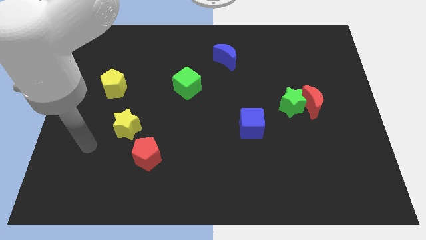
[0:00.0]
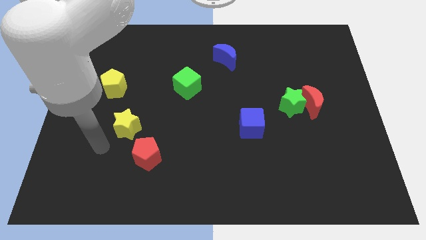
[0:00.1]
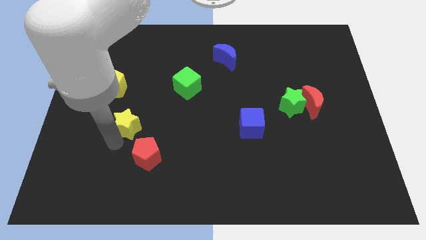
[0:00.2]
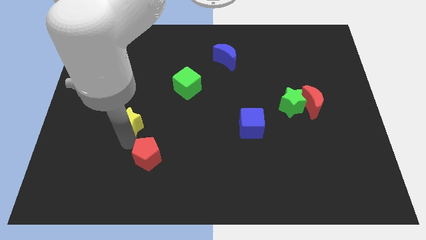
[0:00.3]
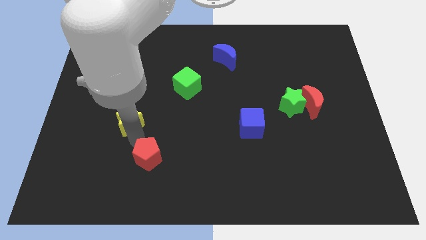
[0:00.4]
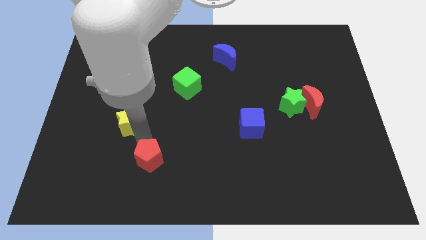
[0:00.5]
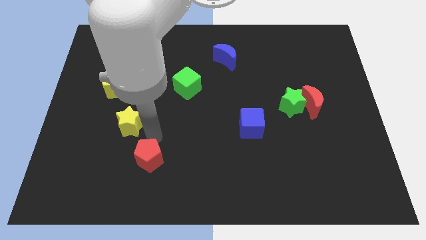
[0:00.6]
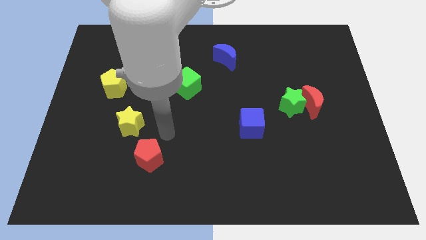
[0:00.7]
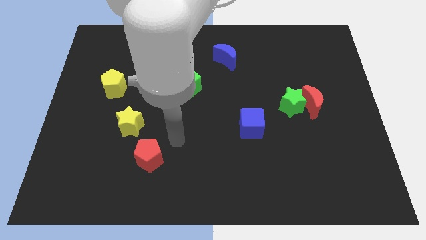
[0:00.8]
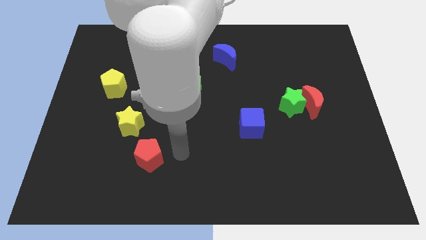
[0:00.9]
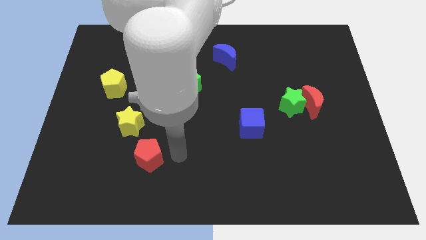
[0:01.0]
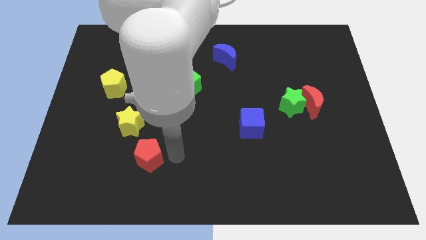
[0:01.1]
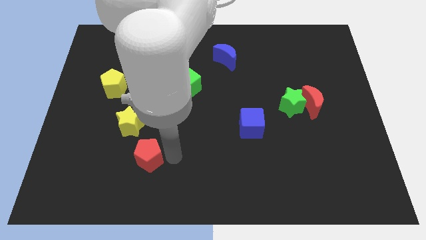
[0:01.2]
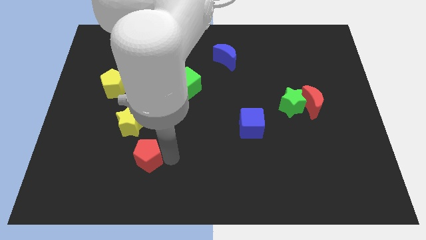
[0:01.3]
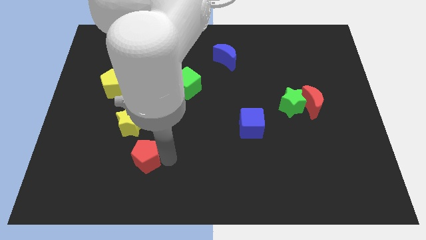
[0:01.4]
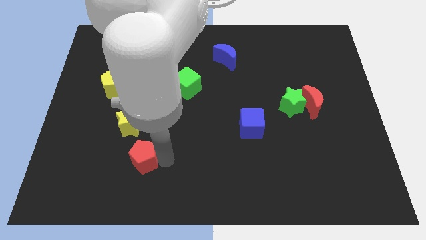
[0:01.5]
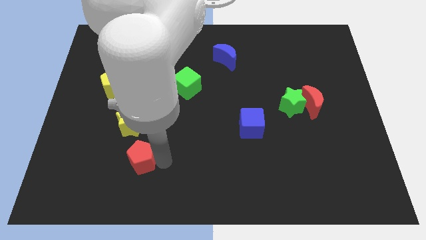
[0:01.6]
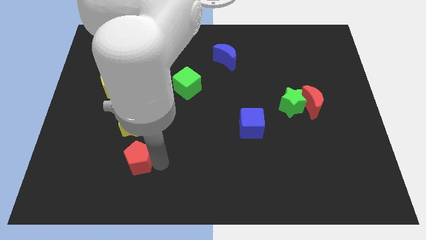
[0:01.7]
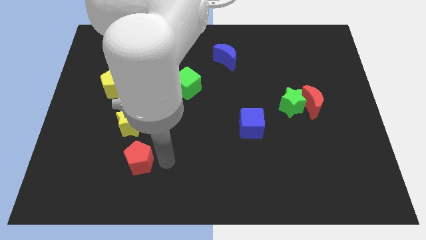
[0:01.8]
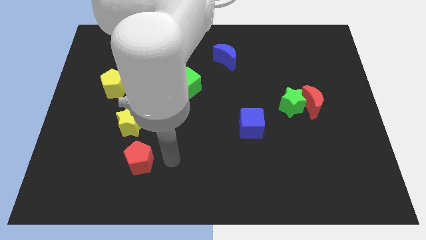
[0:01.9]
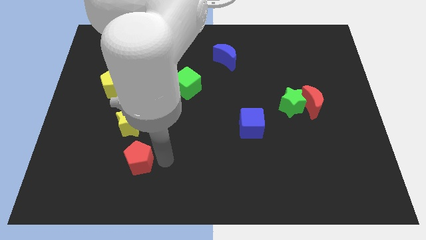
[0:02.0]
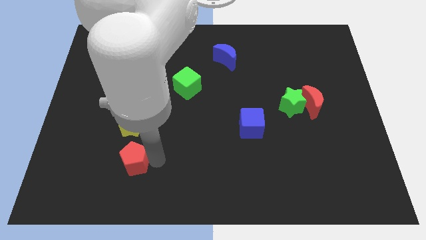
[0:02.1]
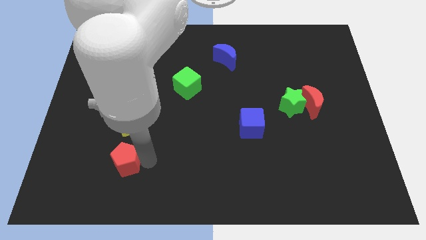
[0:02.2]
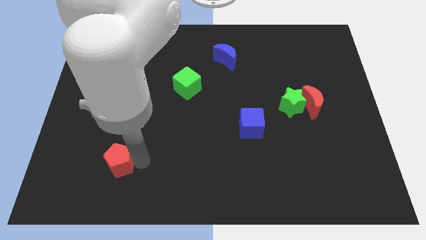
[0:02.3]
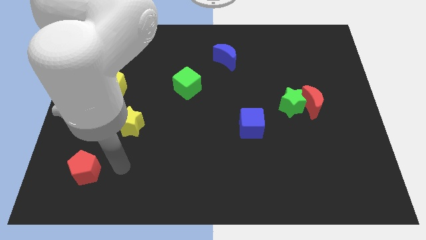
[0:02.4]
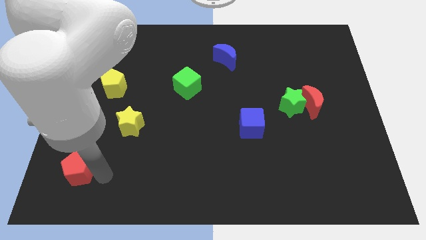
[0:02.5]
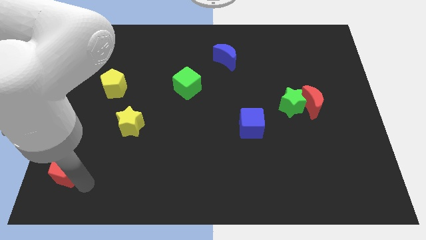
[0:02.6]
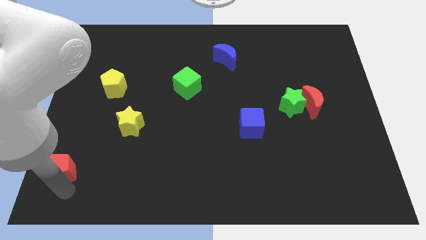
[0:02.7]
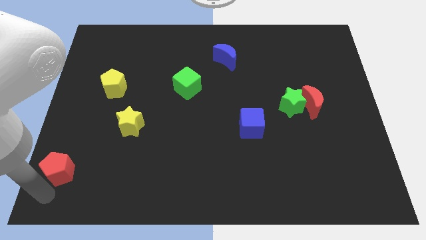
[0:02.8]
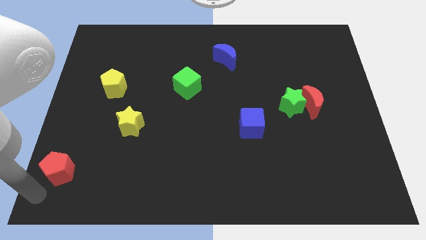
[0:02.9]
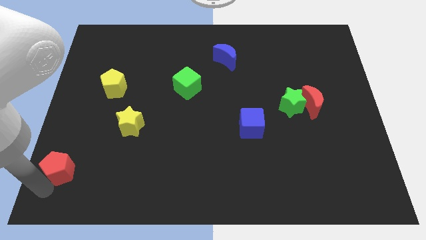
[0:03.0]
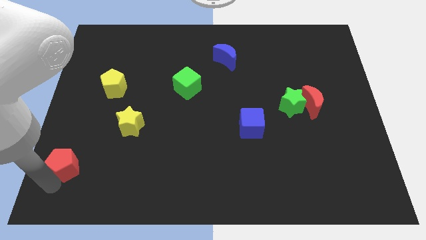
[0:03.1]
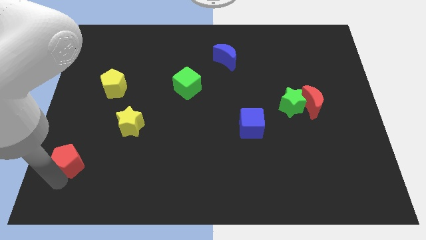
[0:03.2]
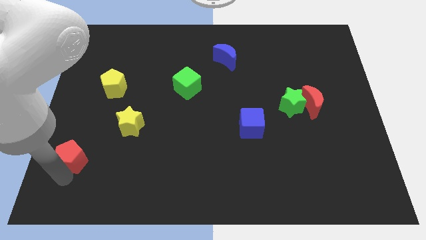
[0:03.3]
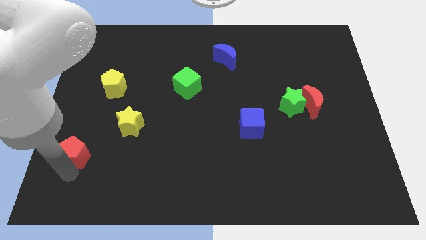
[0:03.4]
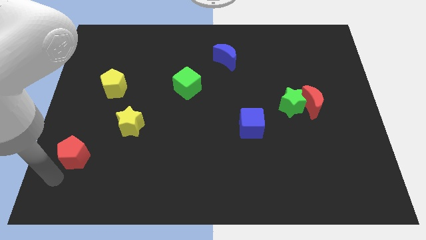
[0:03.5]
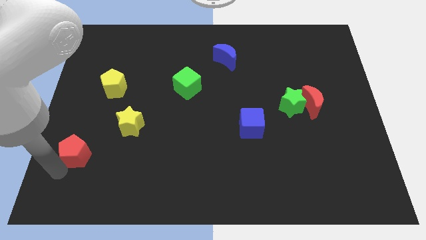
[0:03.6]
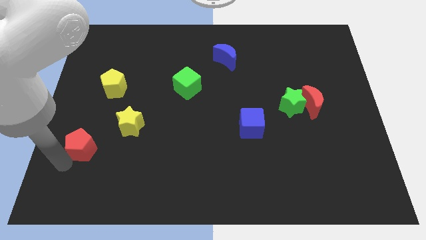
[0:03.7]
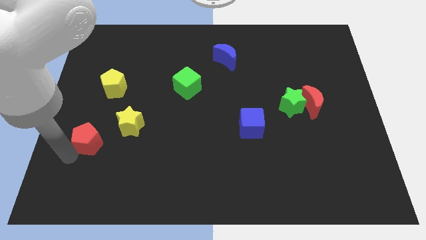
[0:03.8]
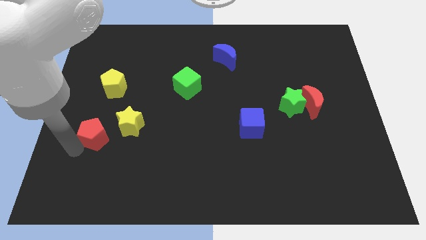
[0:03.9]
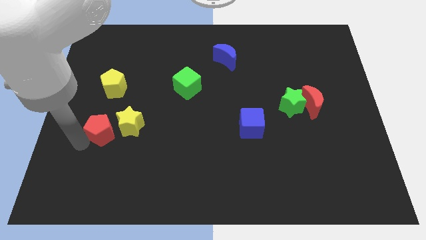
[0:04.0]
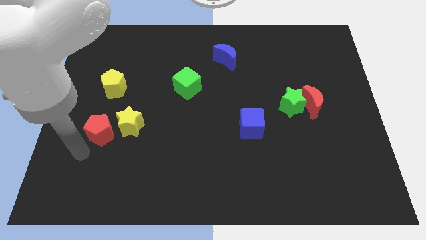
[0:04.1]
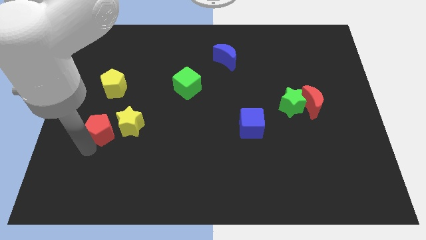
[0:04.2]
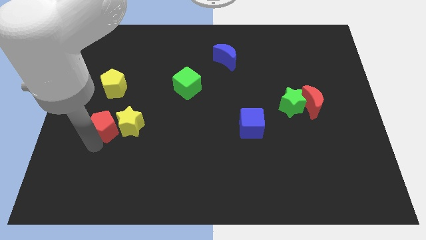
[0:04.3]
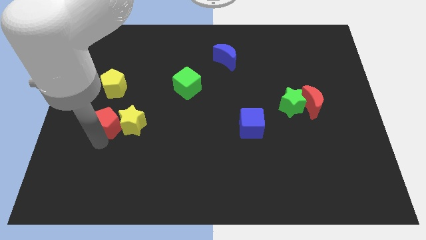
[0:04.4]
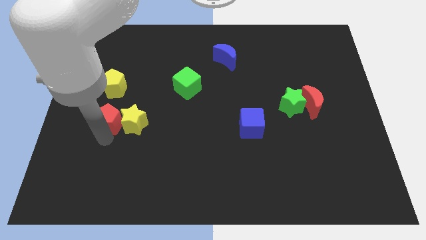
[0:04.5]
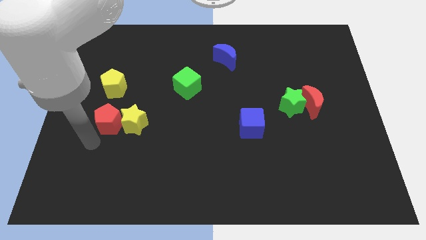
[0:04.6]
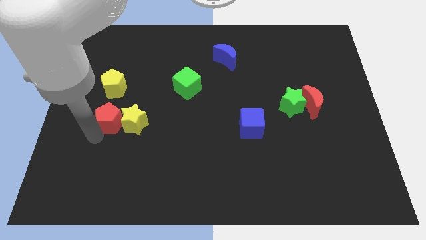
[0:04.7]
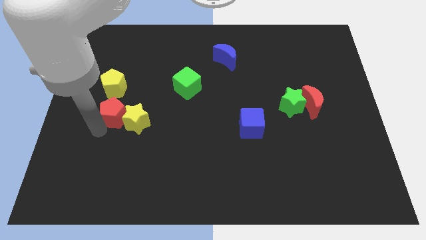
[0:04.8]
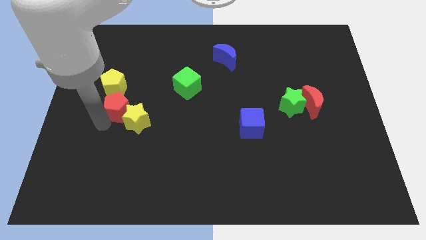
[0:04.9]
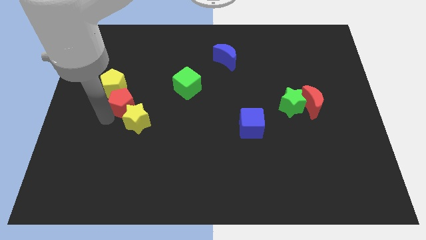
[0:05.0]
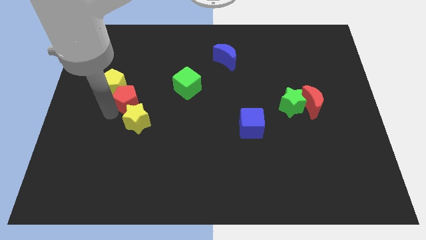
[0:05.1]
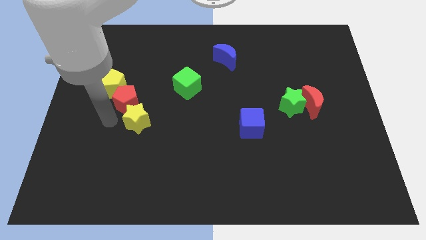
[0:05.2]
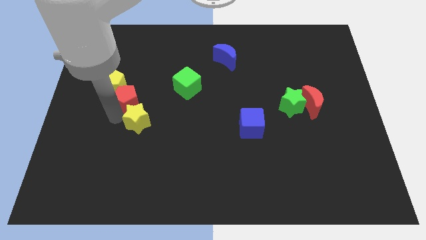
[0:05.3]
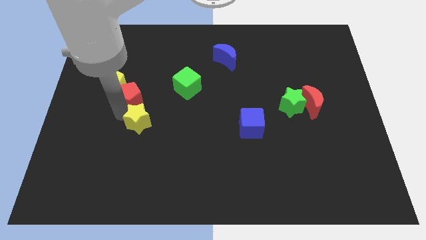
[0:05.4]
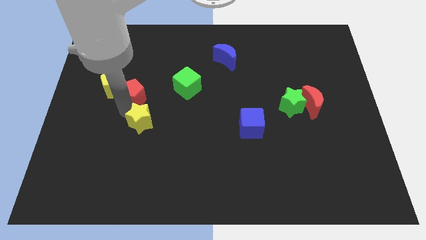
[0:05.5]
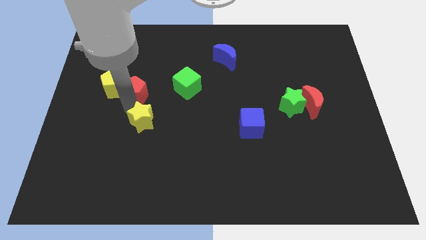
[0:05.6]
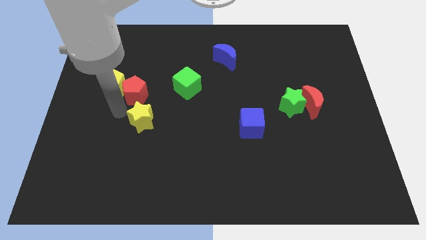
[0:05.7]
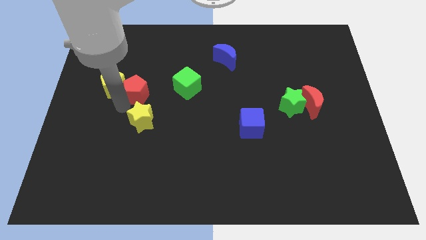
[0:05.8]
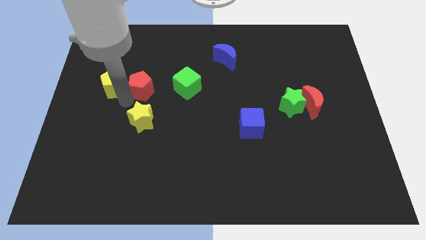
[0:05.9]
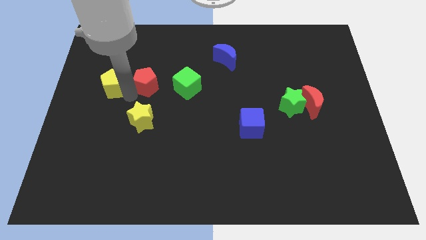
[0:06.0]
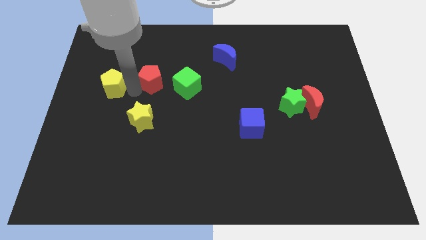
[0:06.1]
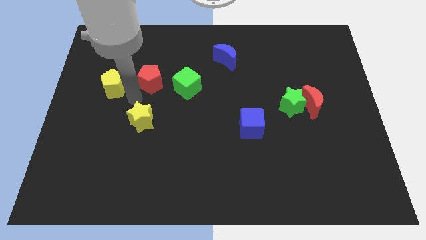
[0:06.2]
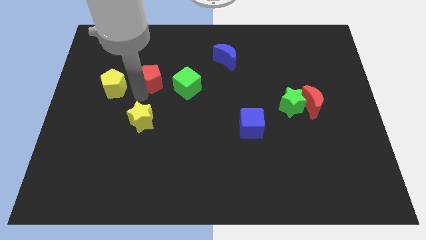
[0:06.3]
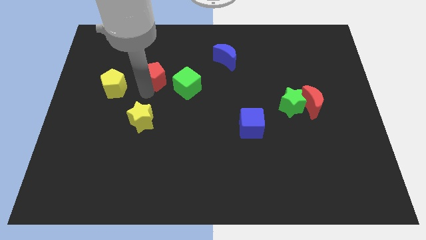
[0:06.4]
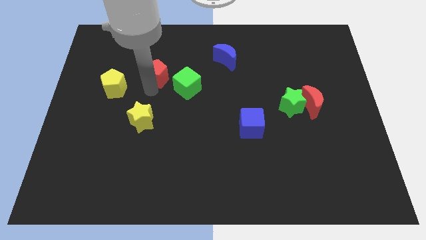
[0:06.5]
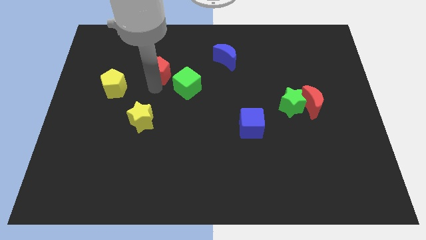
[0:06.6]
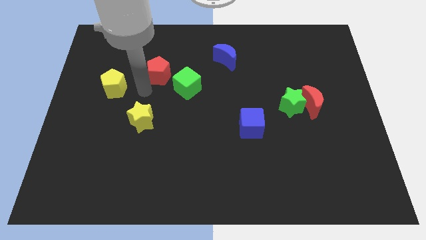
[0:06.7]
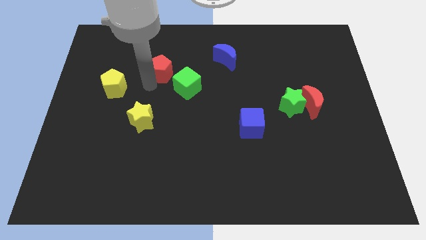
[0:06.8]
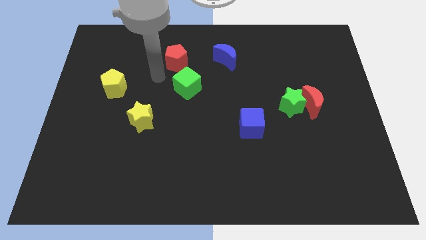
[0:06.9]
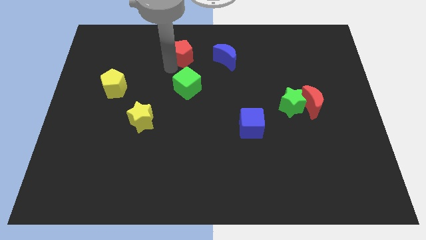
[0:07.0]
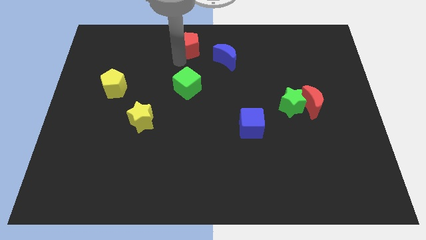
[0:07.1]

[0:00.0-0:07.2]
slide the red pentagon to the towards your base
